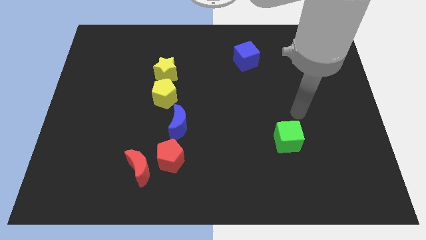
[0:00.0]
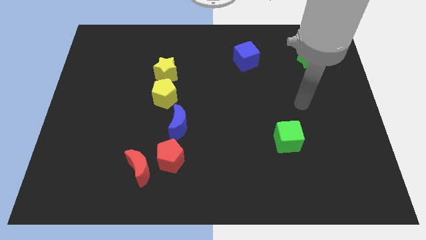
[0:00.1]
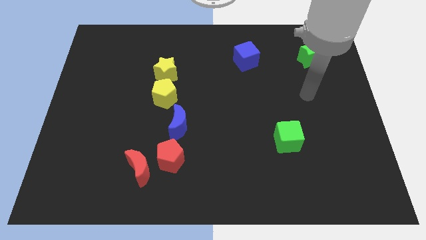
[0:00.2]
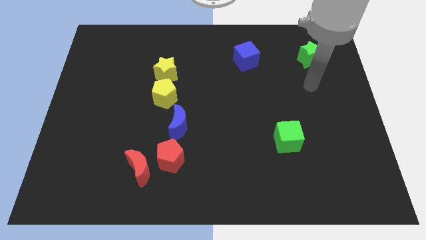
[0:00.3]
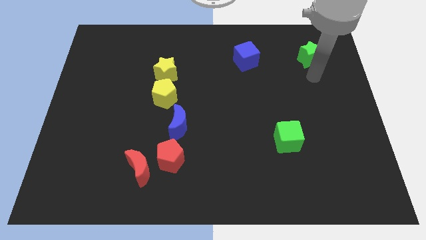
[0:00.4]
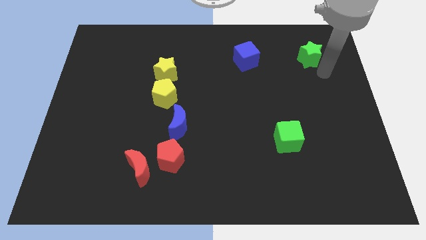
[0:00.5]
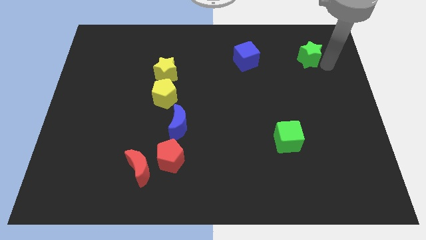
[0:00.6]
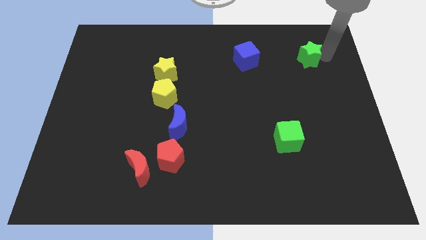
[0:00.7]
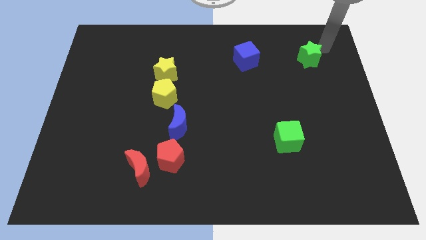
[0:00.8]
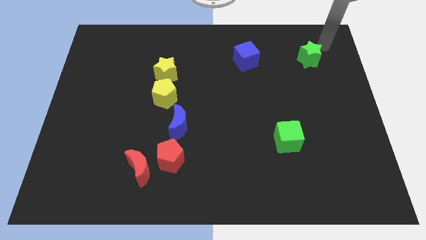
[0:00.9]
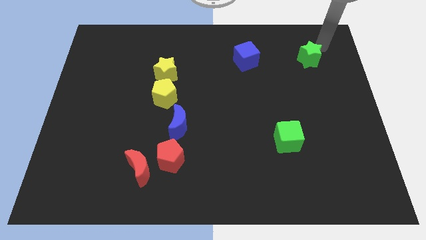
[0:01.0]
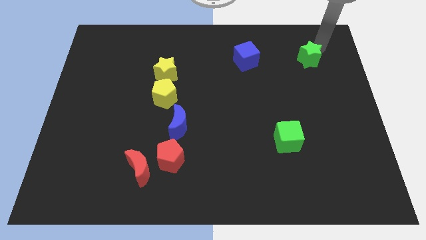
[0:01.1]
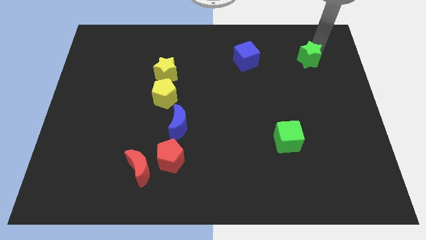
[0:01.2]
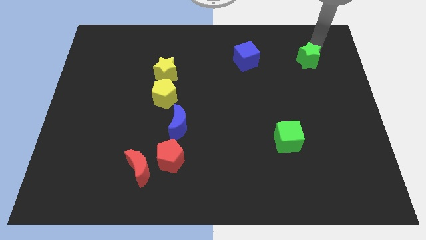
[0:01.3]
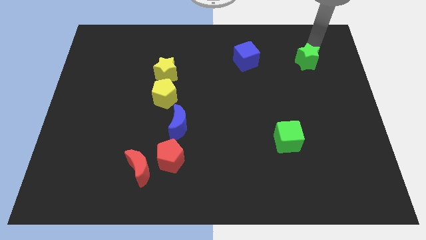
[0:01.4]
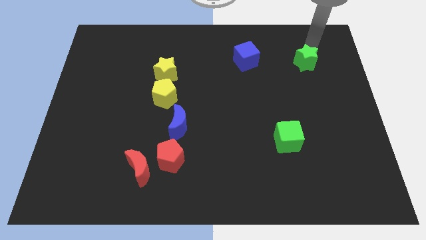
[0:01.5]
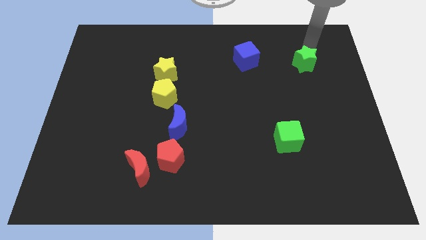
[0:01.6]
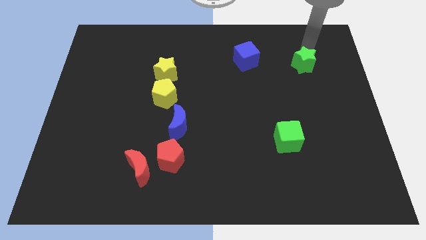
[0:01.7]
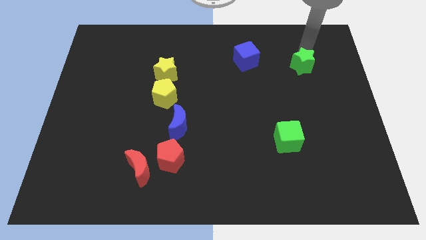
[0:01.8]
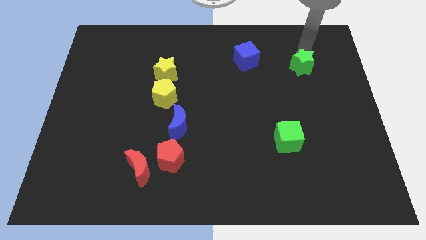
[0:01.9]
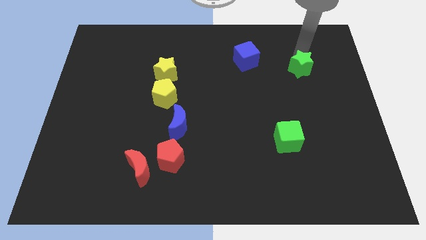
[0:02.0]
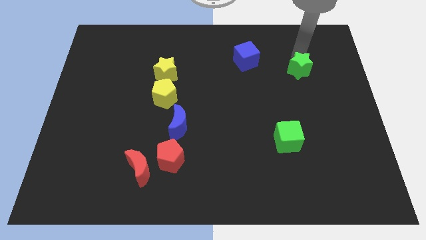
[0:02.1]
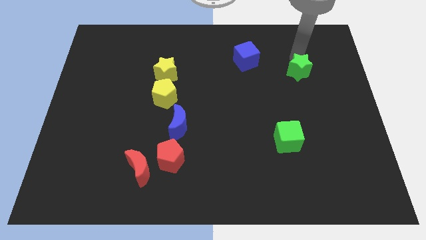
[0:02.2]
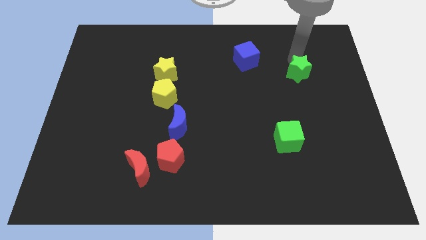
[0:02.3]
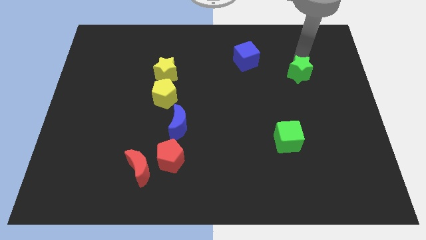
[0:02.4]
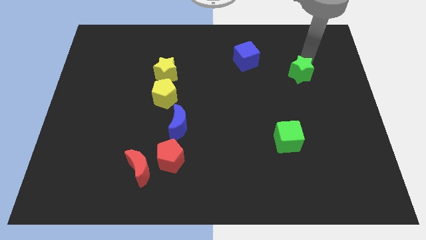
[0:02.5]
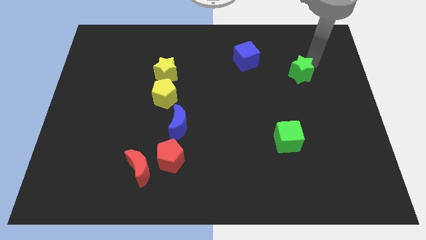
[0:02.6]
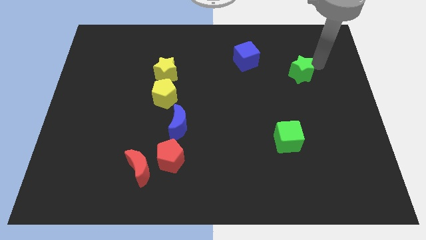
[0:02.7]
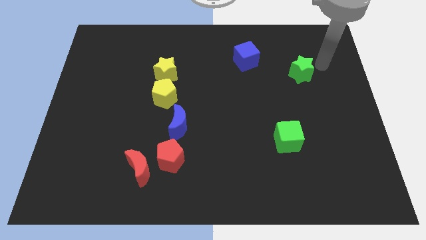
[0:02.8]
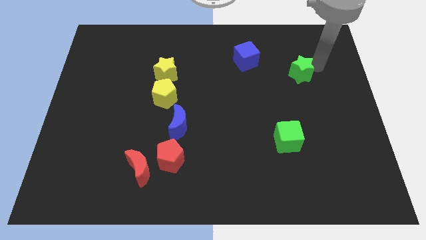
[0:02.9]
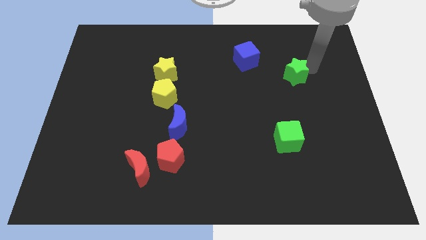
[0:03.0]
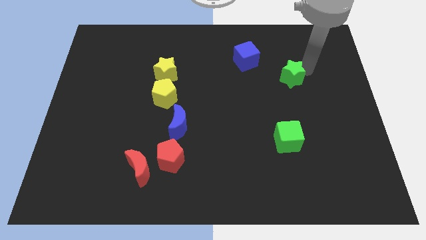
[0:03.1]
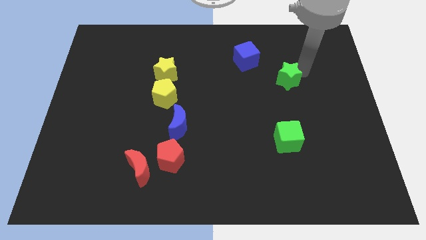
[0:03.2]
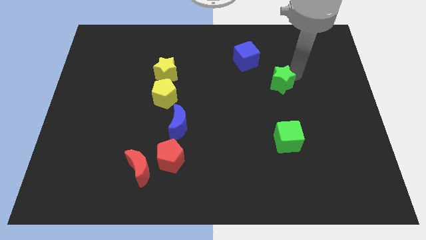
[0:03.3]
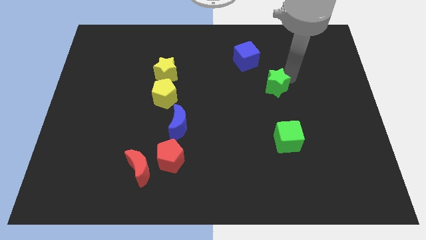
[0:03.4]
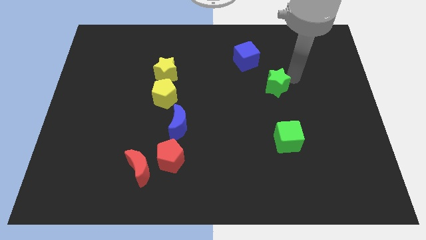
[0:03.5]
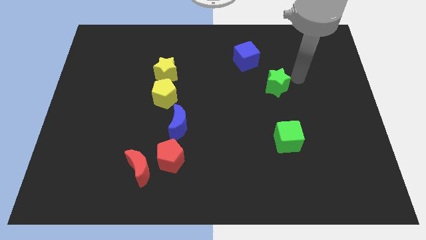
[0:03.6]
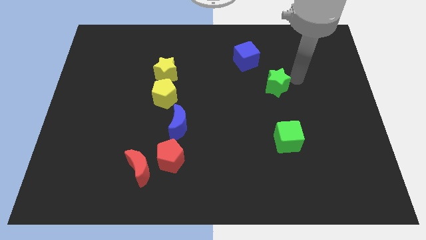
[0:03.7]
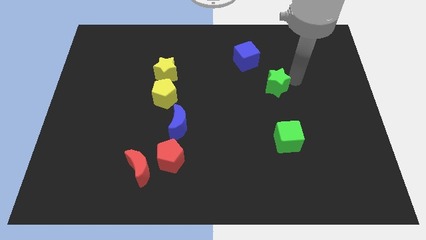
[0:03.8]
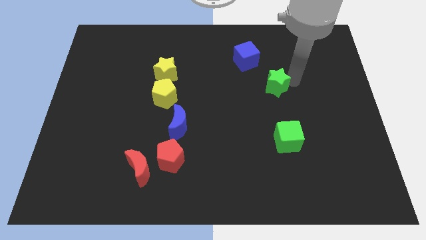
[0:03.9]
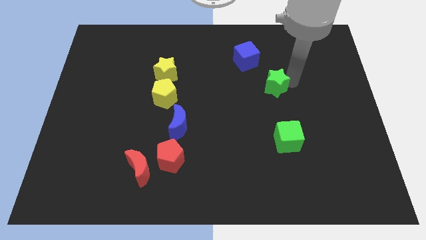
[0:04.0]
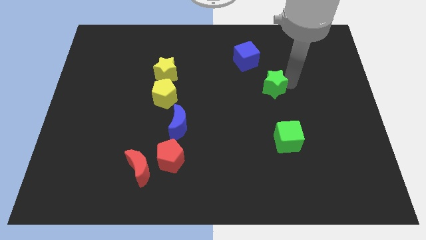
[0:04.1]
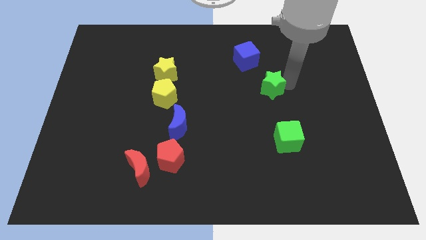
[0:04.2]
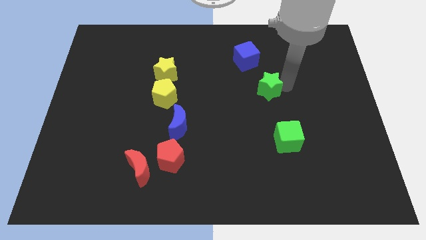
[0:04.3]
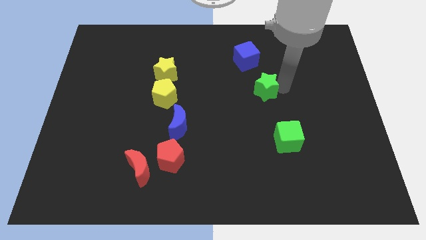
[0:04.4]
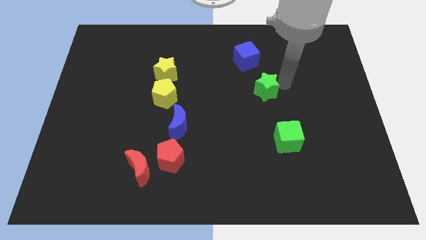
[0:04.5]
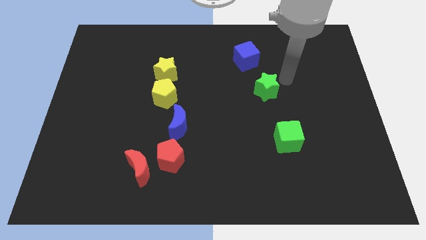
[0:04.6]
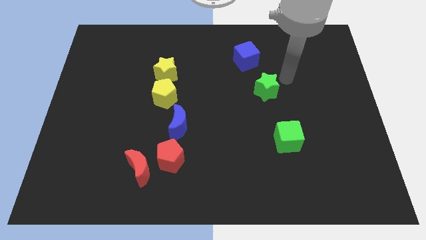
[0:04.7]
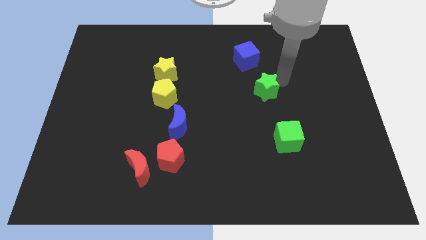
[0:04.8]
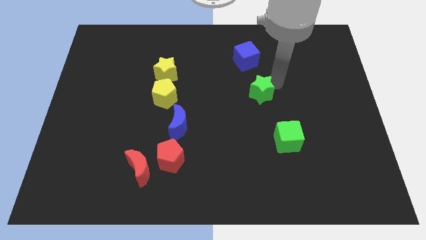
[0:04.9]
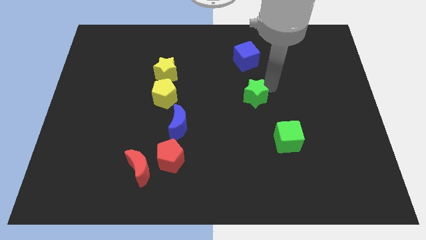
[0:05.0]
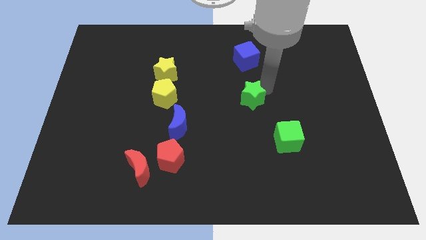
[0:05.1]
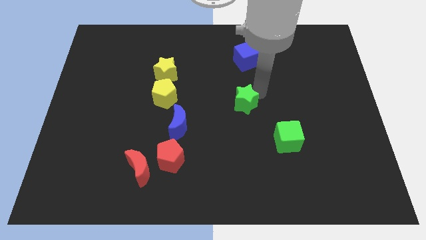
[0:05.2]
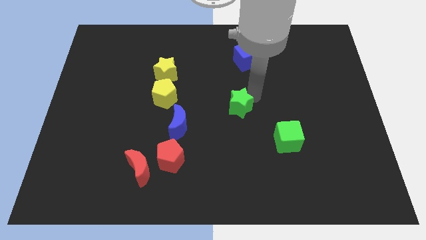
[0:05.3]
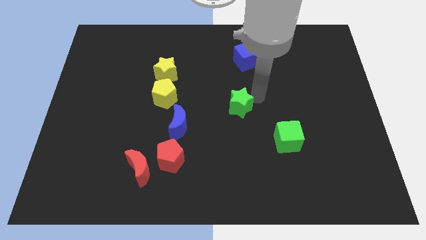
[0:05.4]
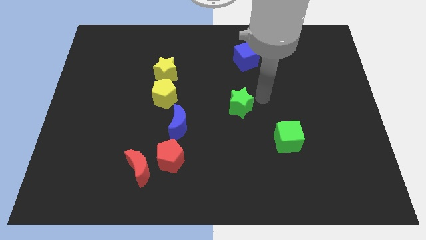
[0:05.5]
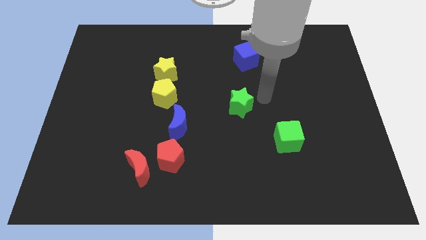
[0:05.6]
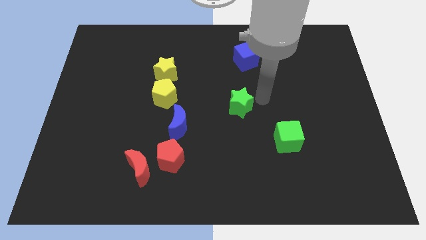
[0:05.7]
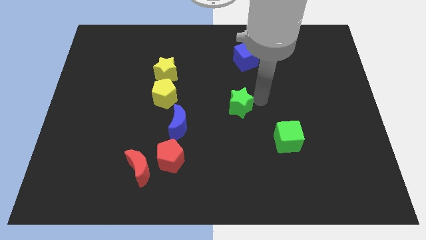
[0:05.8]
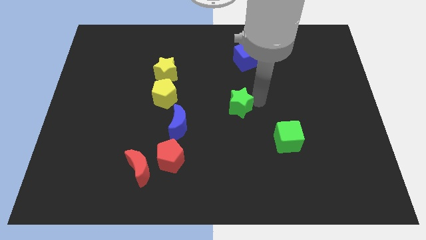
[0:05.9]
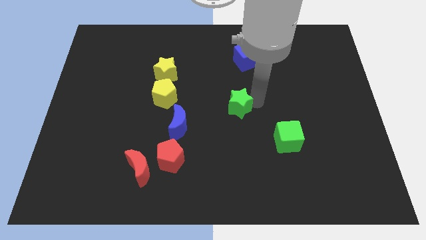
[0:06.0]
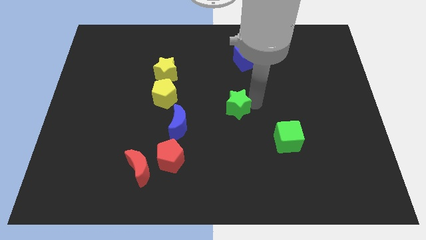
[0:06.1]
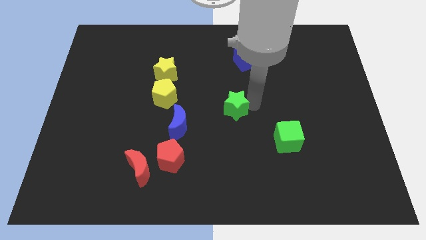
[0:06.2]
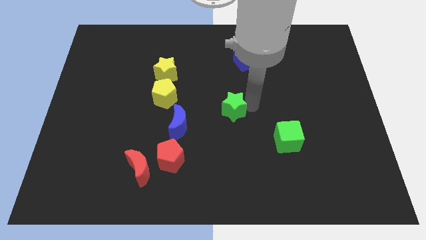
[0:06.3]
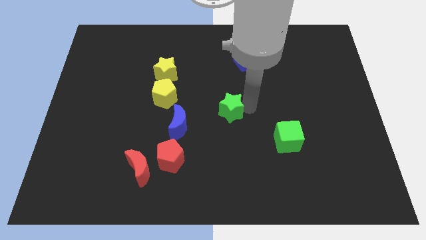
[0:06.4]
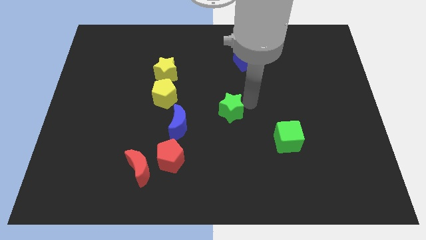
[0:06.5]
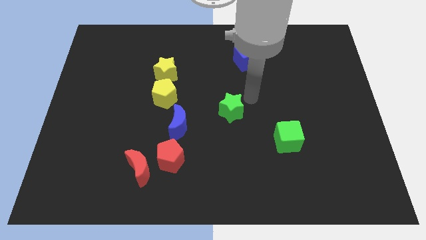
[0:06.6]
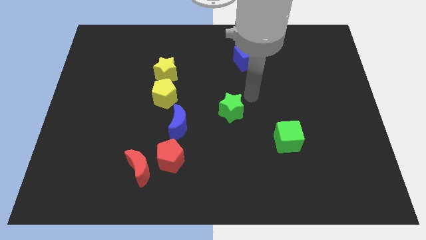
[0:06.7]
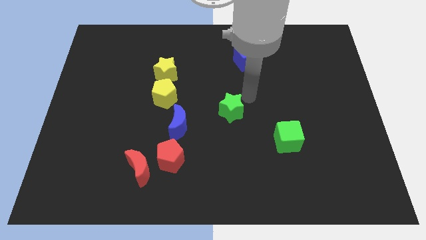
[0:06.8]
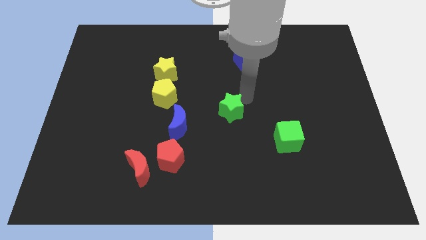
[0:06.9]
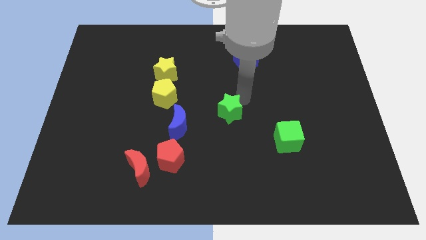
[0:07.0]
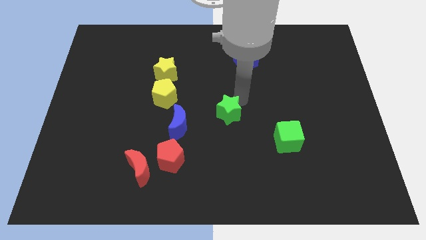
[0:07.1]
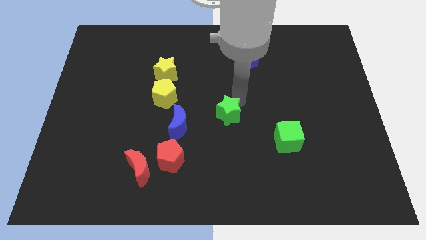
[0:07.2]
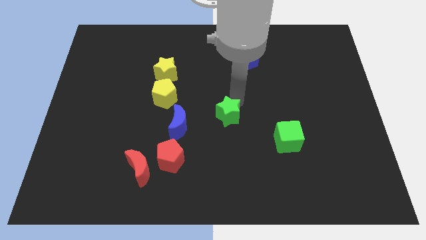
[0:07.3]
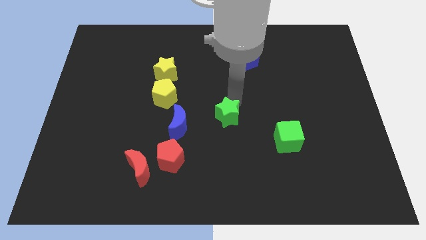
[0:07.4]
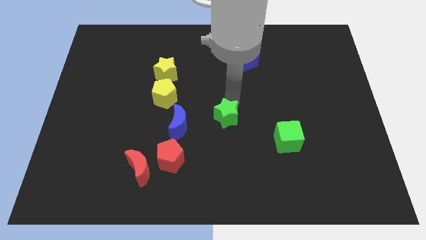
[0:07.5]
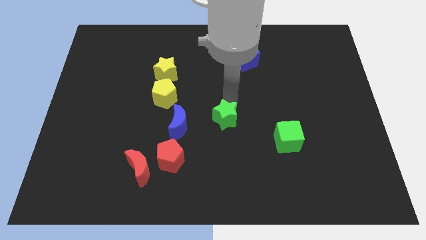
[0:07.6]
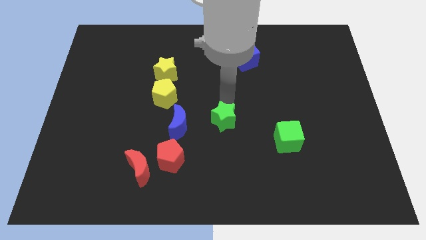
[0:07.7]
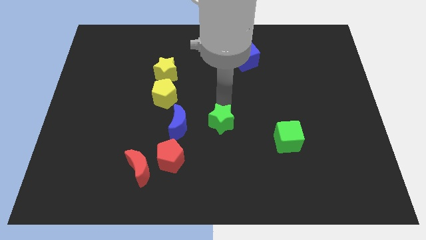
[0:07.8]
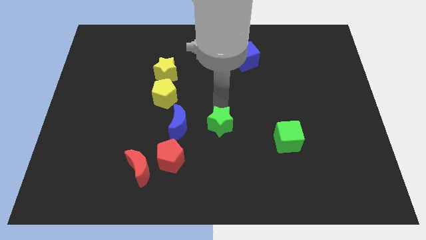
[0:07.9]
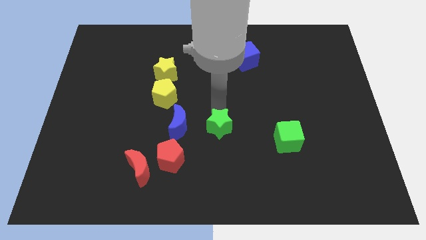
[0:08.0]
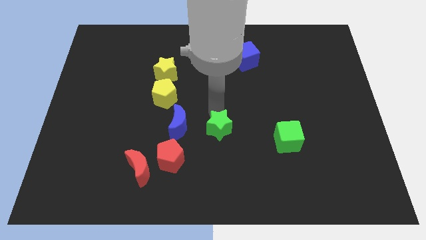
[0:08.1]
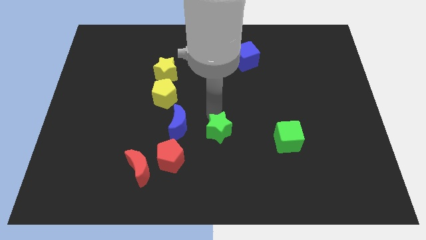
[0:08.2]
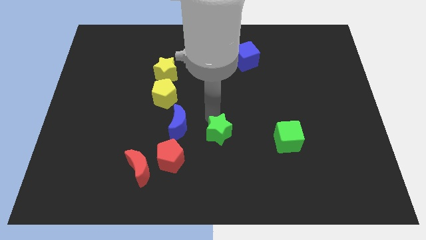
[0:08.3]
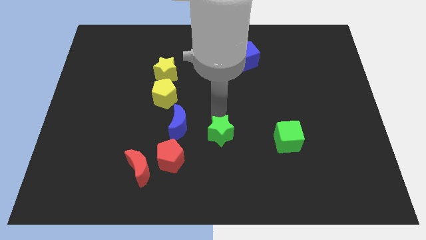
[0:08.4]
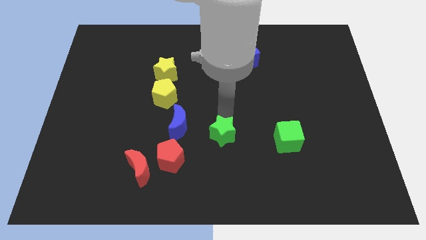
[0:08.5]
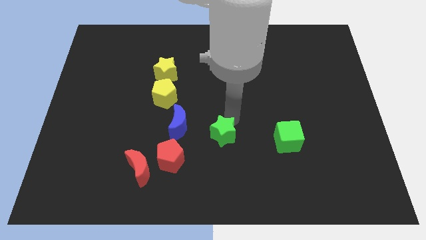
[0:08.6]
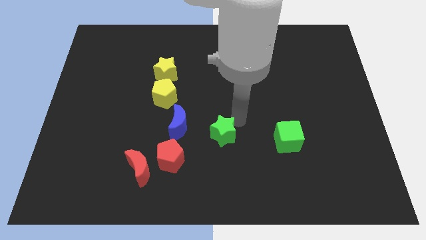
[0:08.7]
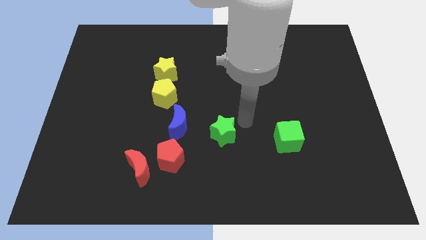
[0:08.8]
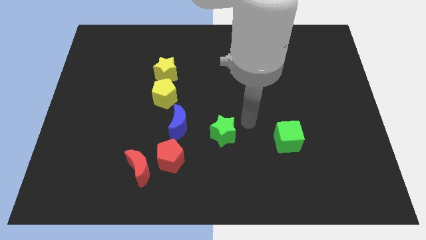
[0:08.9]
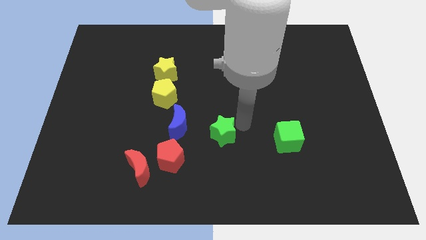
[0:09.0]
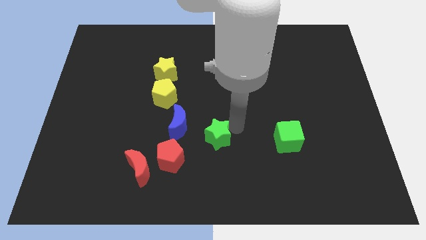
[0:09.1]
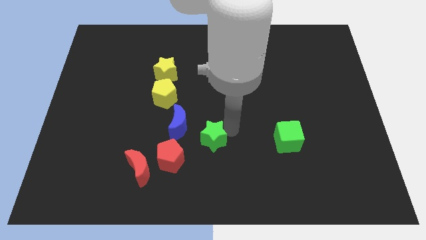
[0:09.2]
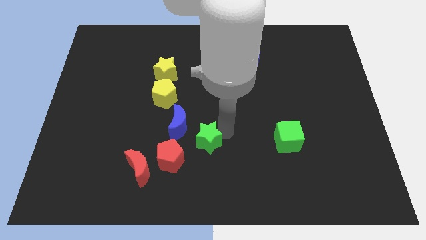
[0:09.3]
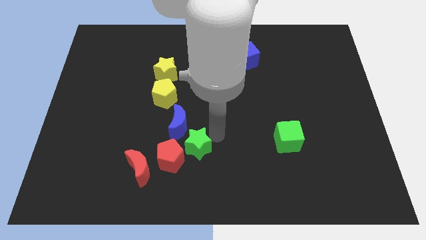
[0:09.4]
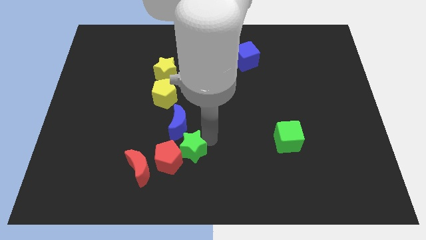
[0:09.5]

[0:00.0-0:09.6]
put the green star close to the red pentagon
